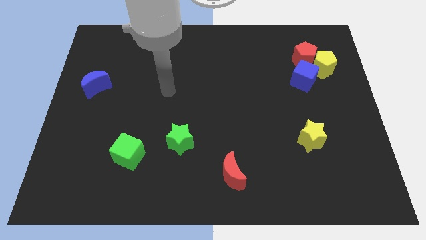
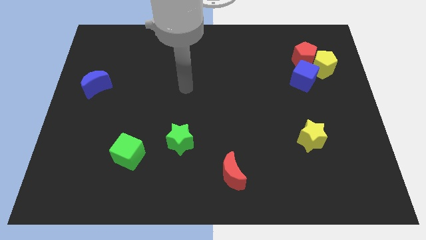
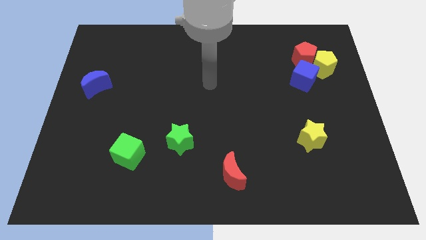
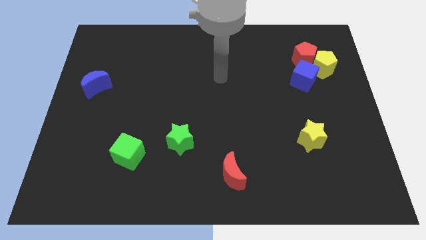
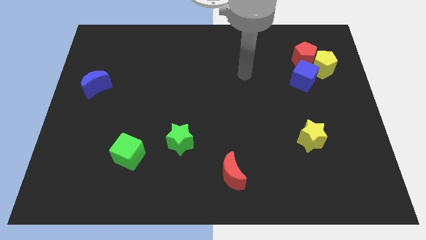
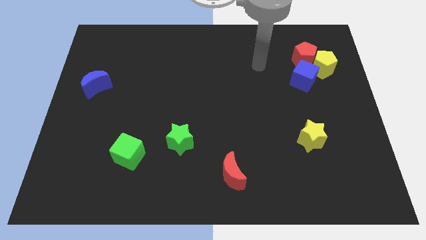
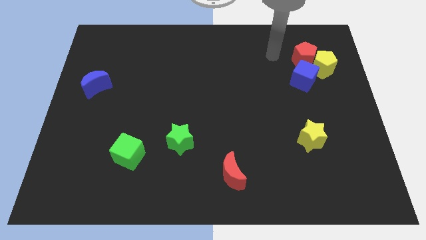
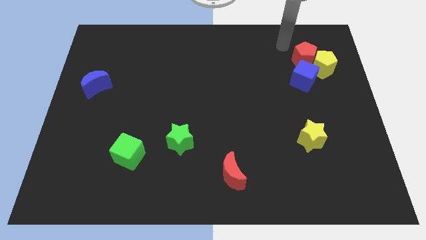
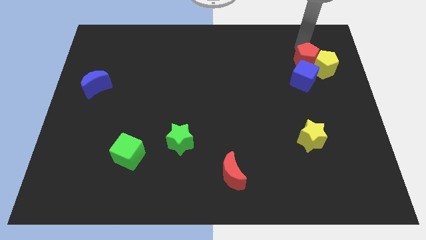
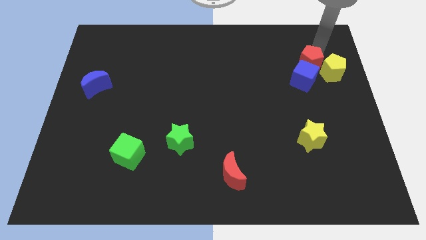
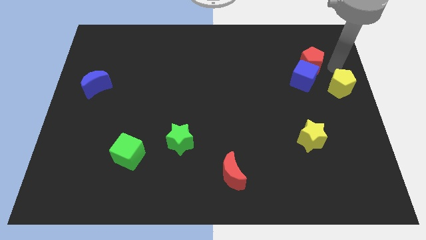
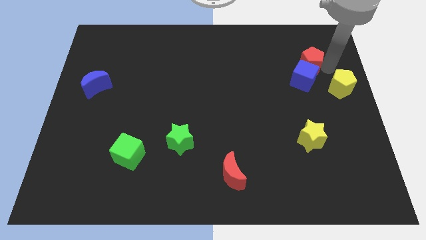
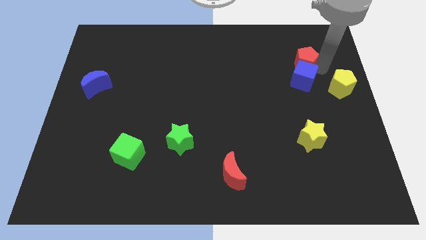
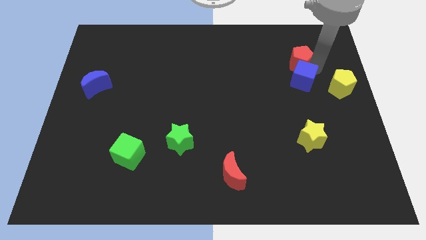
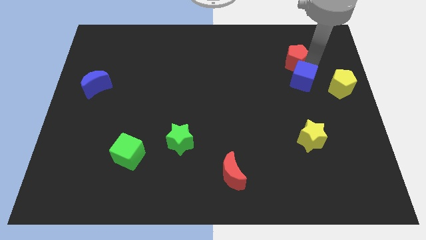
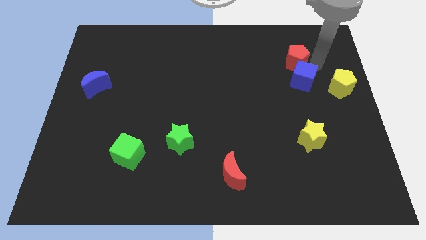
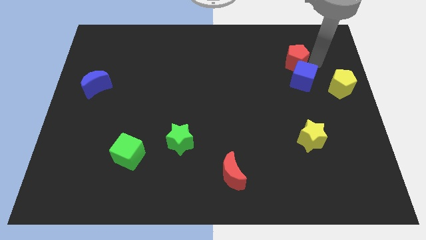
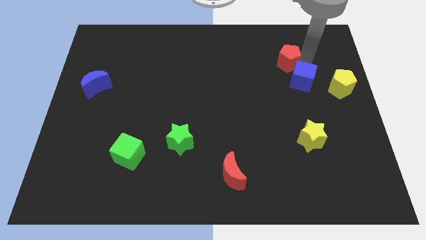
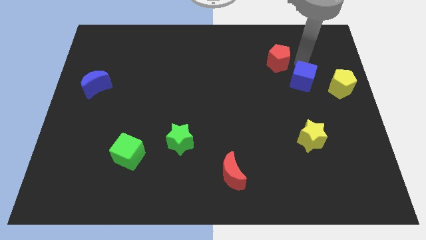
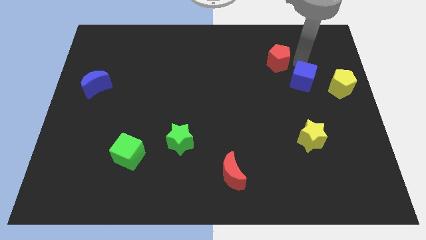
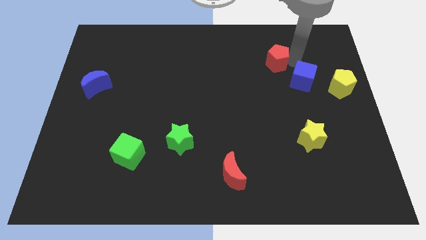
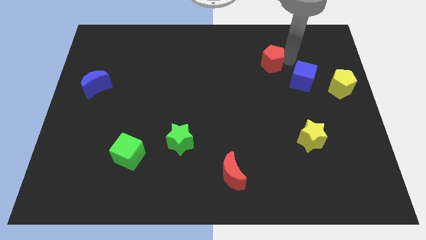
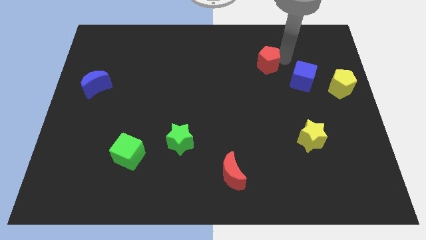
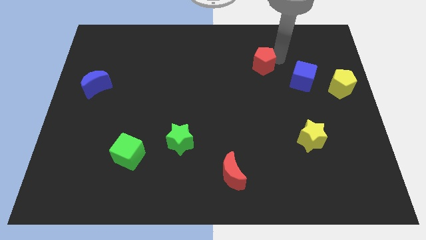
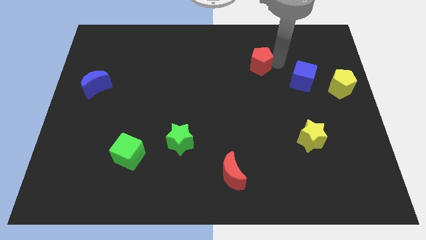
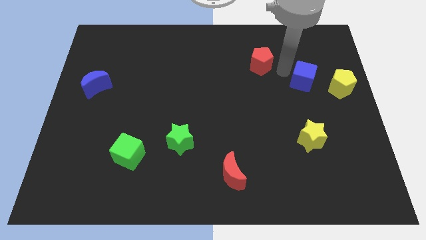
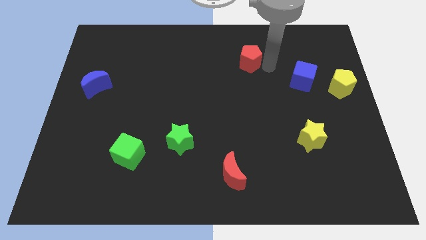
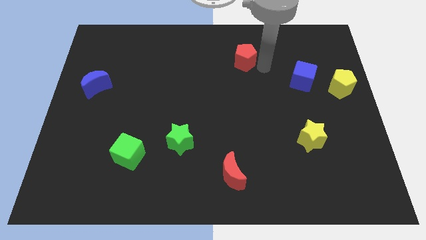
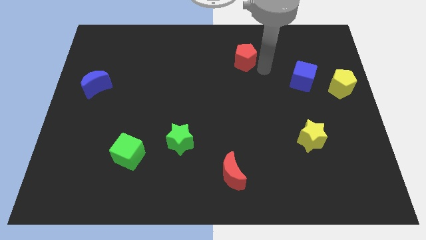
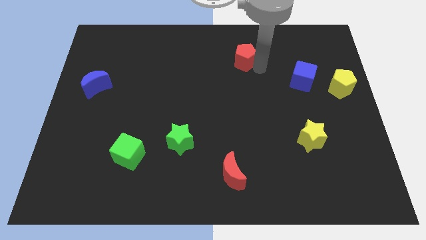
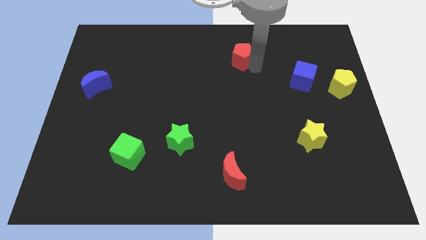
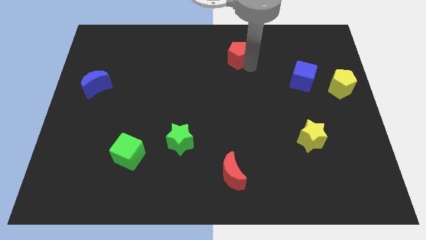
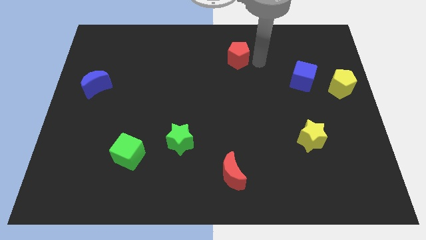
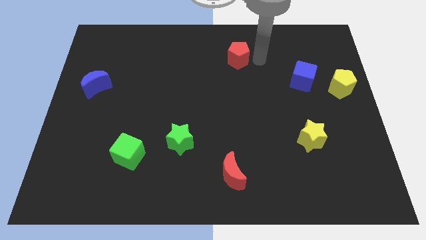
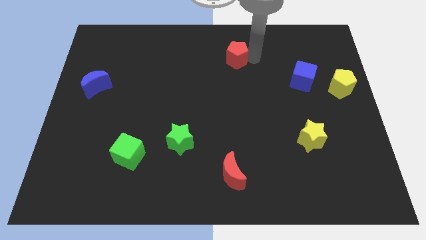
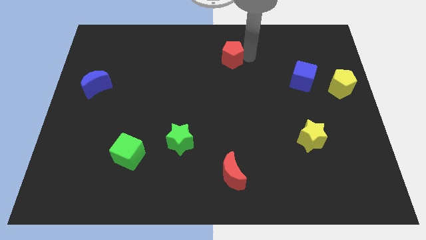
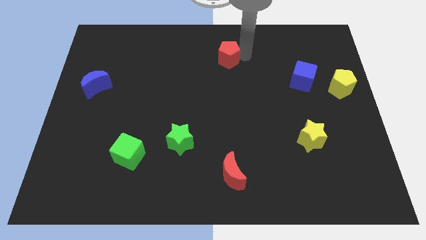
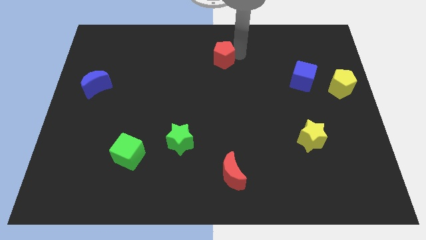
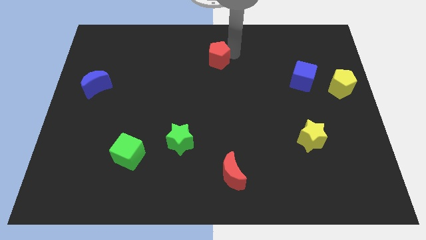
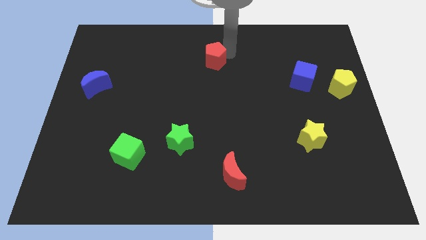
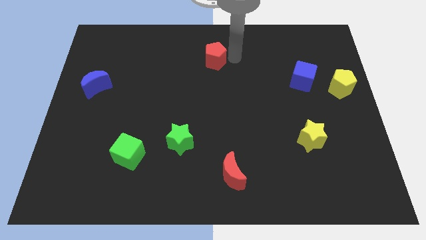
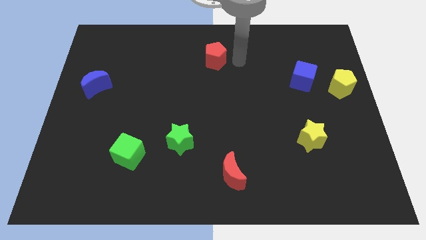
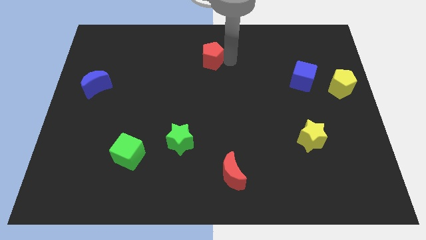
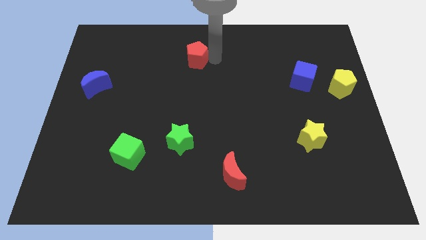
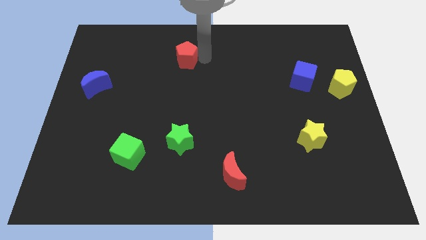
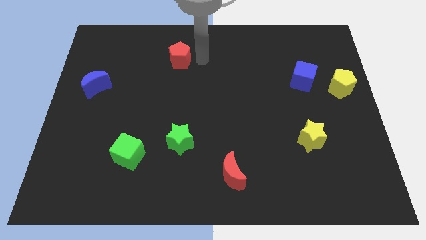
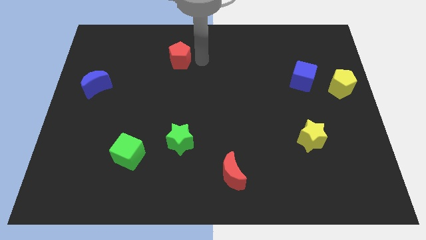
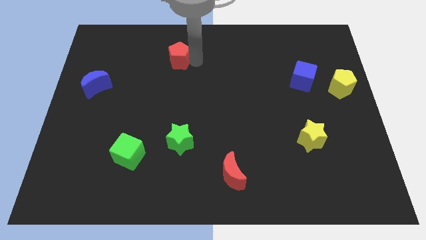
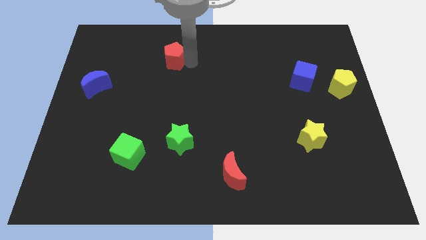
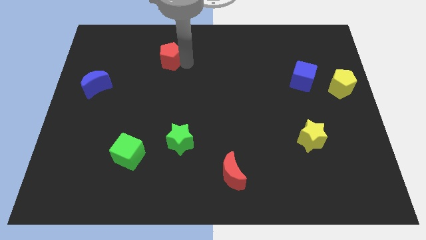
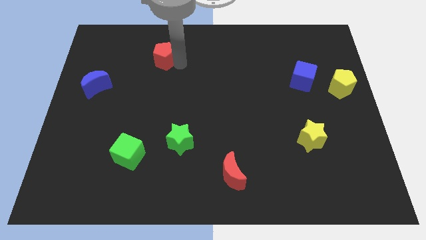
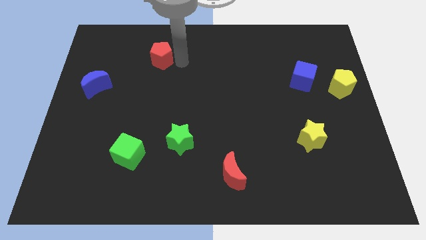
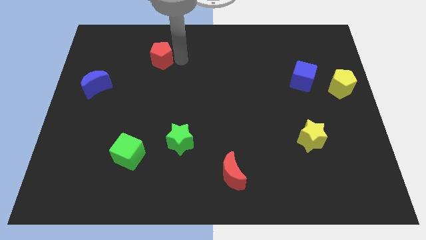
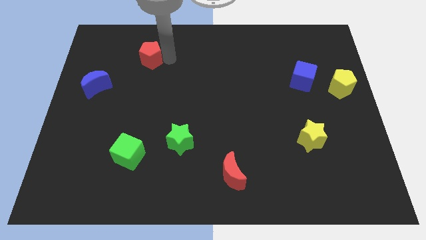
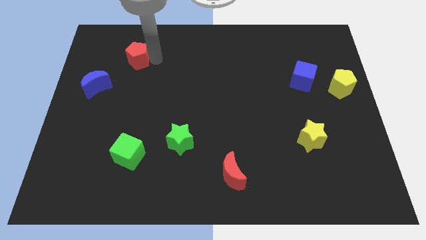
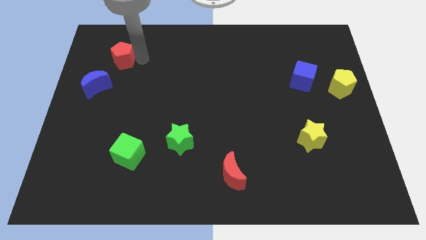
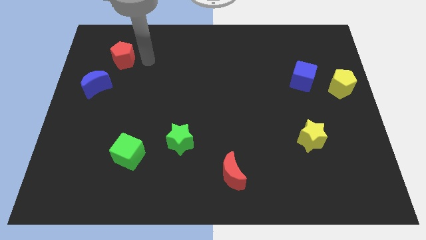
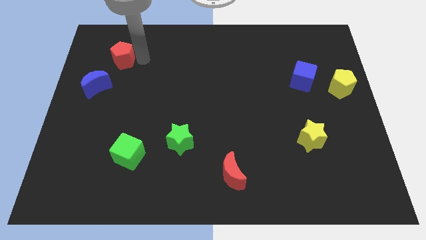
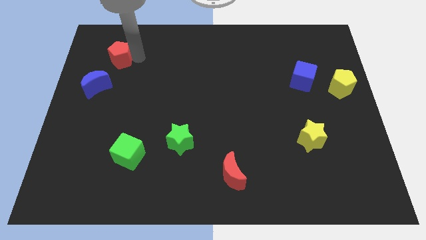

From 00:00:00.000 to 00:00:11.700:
put the red pentagon to the top of the blue moon

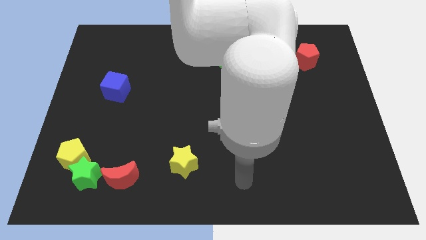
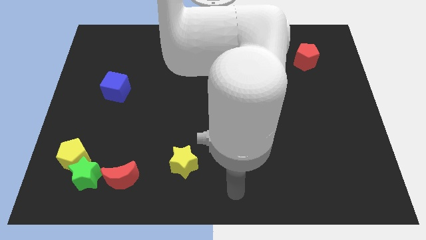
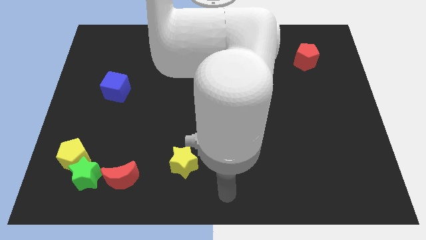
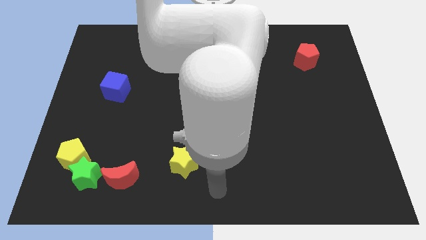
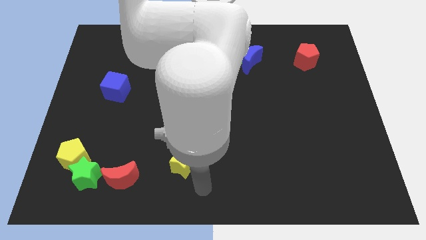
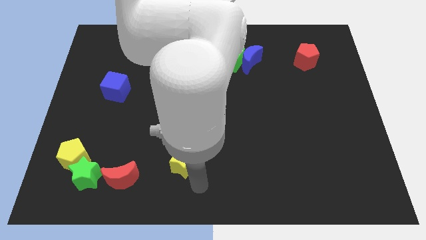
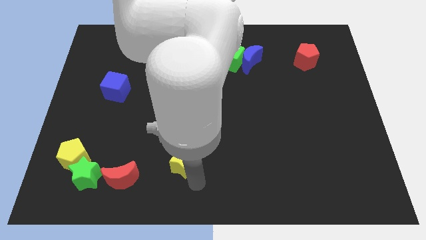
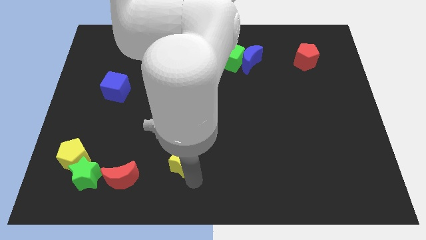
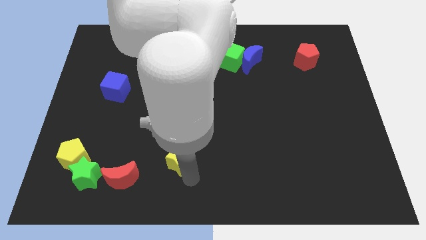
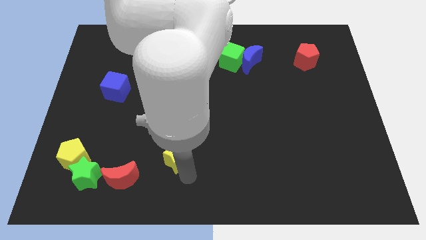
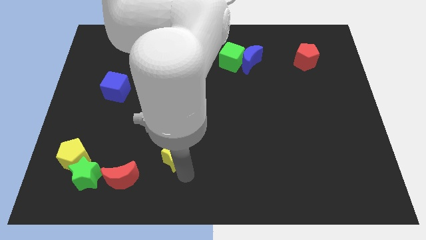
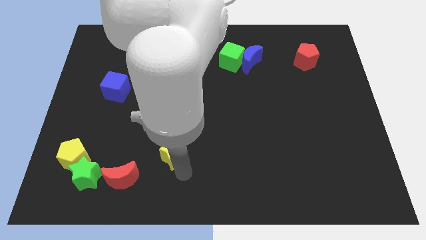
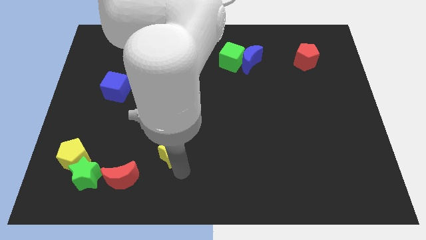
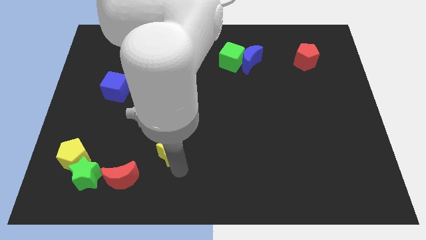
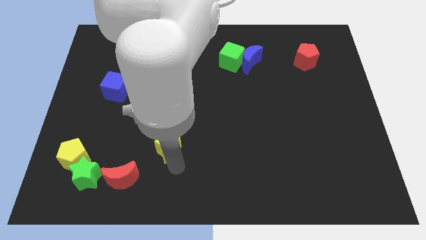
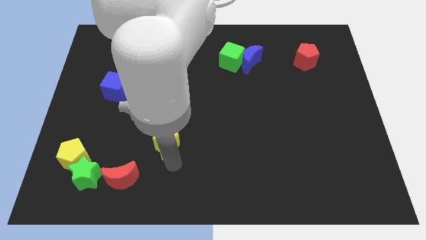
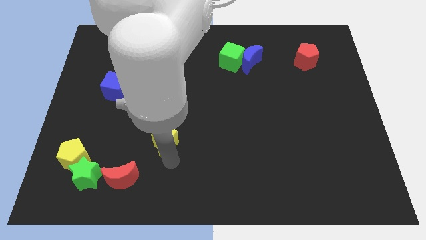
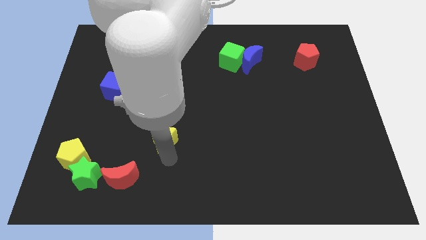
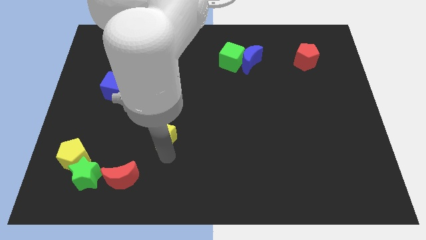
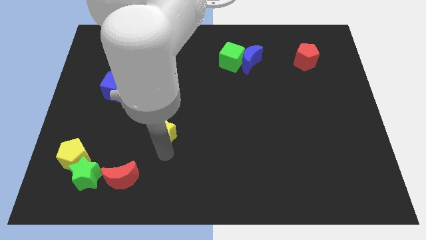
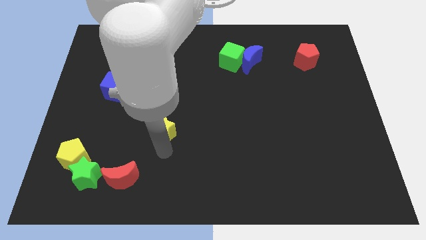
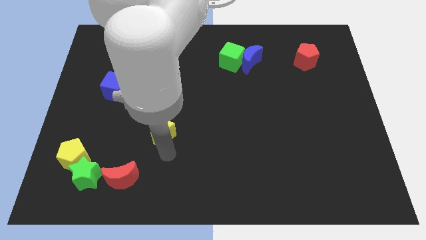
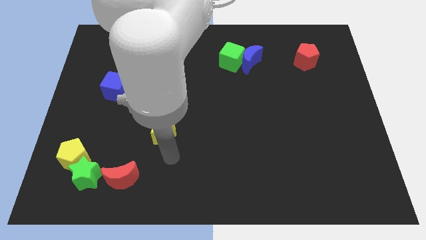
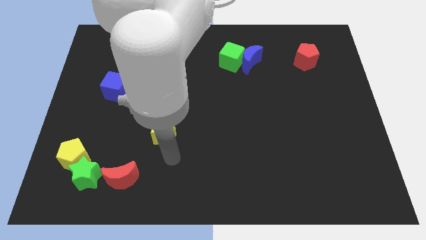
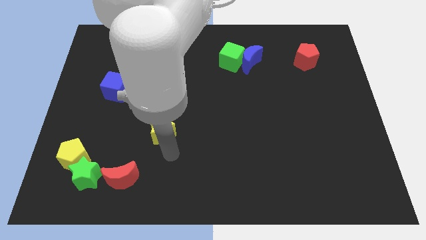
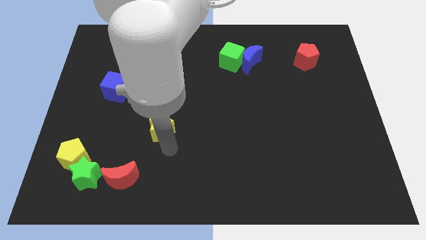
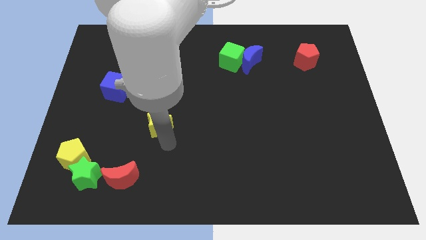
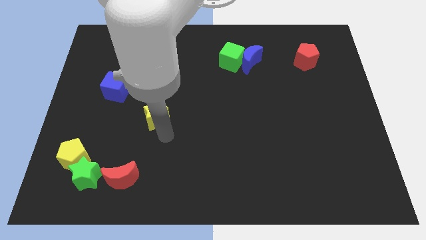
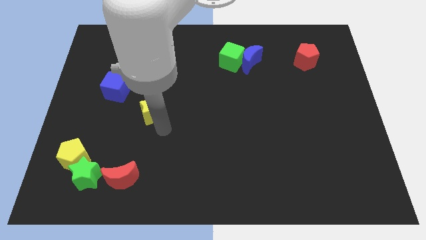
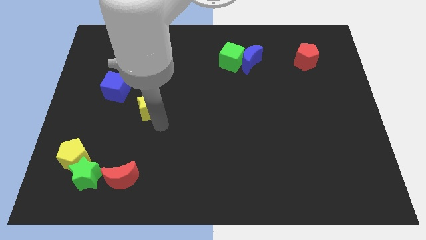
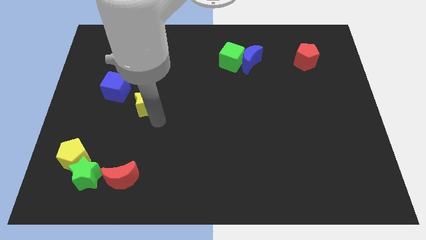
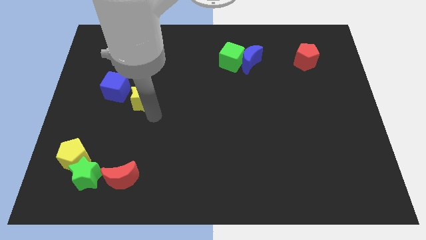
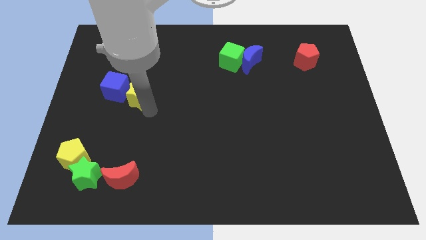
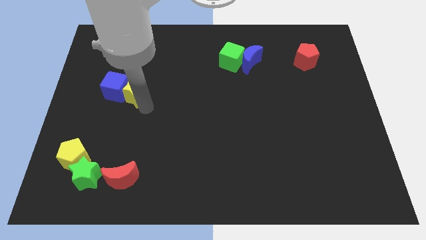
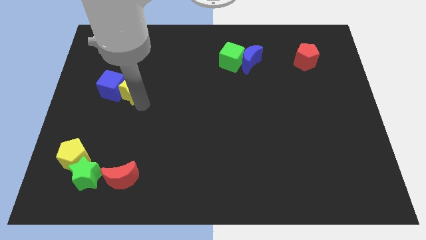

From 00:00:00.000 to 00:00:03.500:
slide the yellow star to the top right of the blue cube
